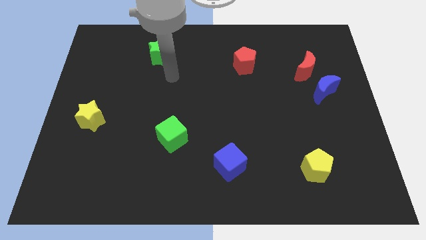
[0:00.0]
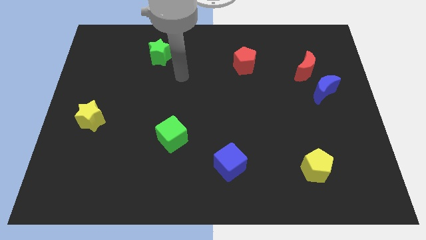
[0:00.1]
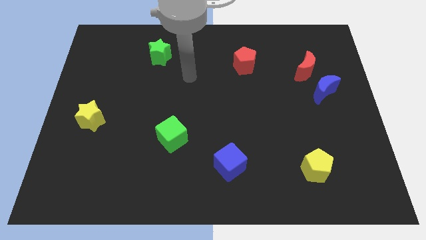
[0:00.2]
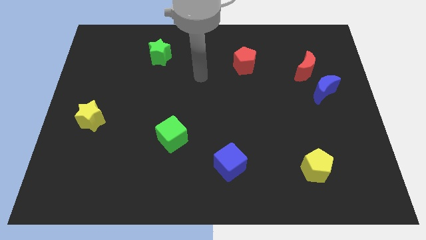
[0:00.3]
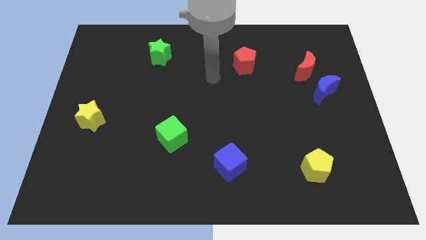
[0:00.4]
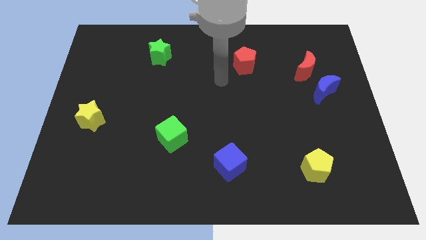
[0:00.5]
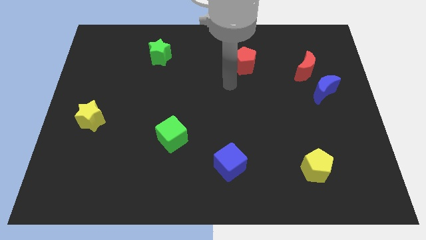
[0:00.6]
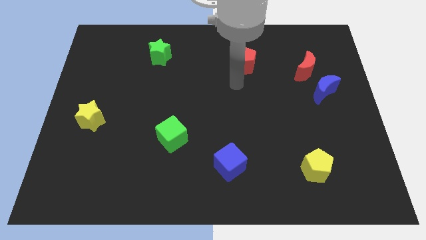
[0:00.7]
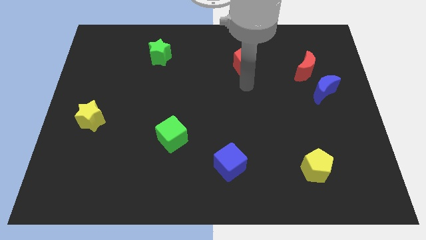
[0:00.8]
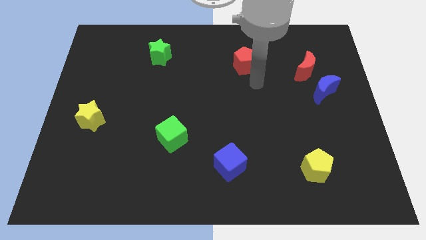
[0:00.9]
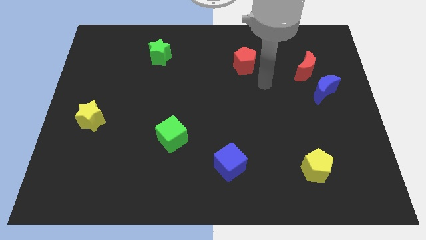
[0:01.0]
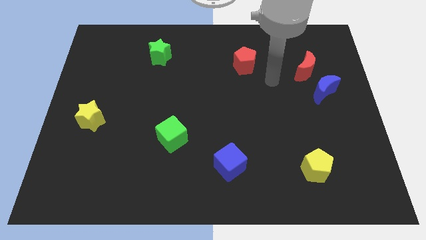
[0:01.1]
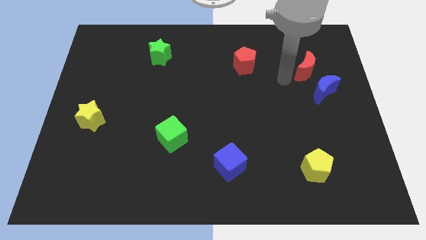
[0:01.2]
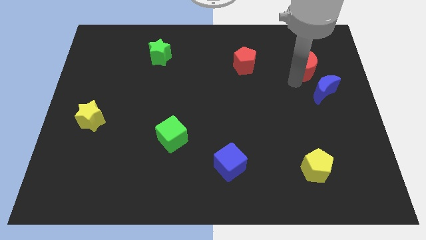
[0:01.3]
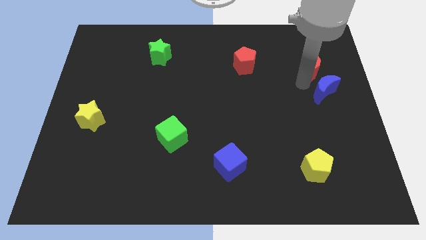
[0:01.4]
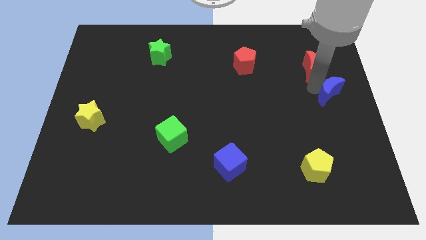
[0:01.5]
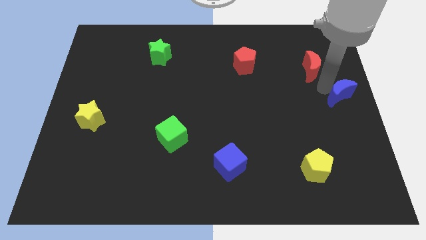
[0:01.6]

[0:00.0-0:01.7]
move the red moon away from the blue moon

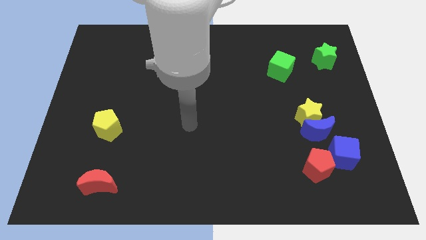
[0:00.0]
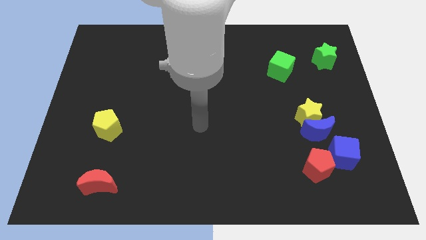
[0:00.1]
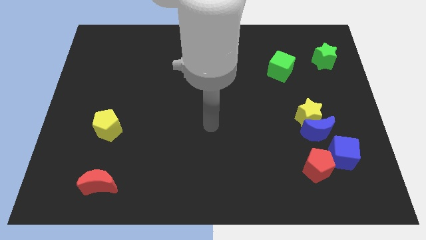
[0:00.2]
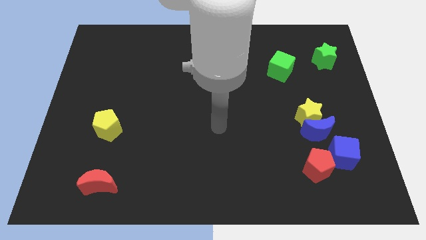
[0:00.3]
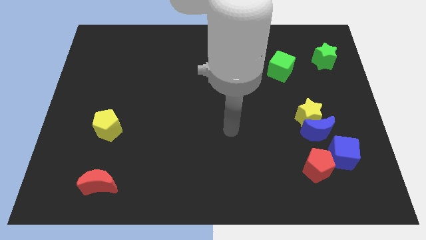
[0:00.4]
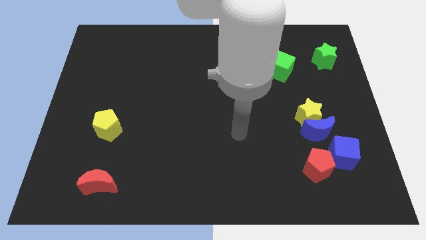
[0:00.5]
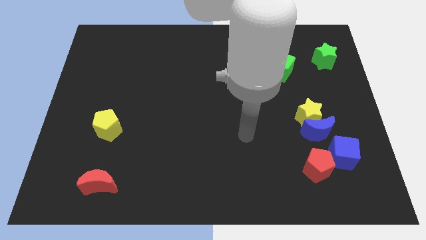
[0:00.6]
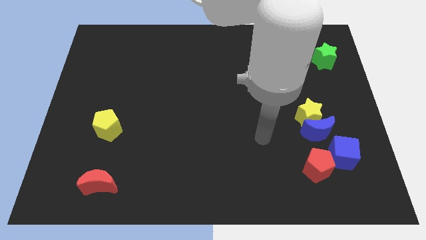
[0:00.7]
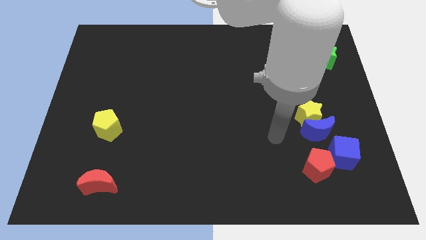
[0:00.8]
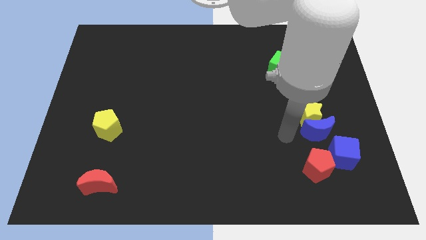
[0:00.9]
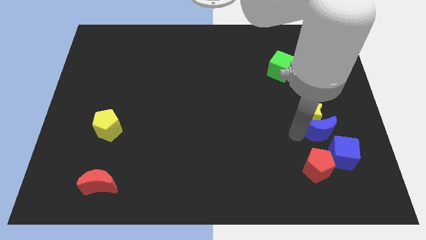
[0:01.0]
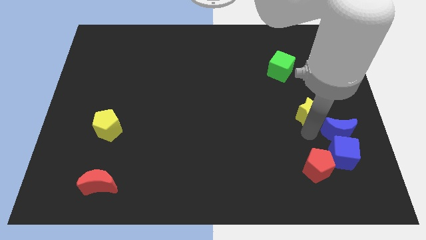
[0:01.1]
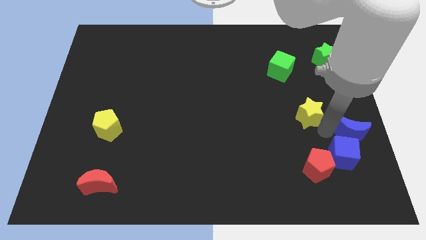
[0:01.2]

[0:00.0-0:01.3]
pull the yellow star apart from the blue moon

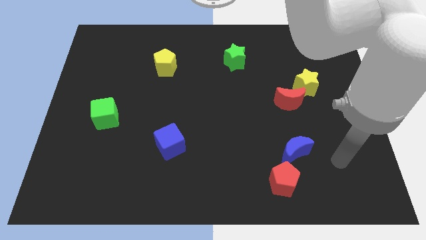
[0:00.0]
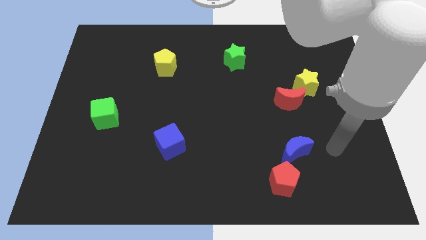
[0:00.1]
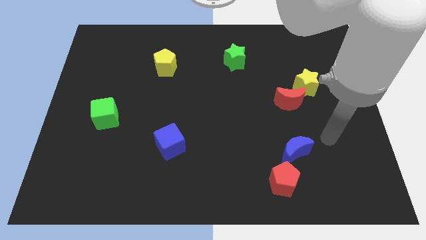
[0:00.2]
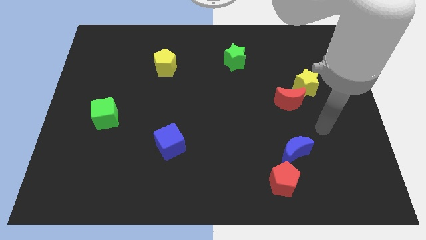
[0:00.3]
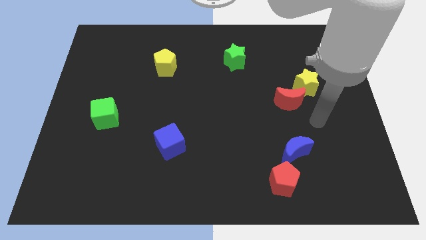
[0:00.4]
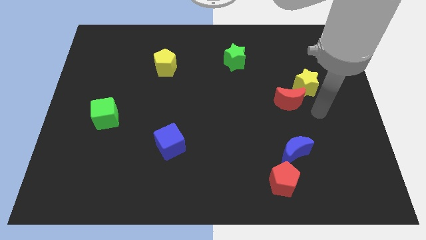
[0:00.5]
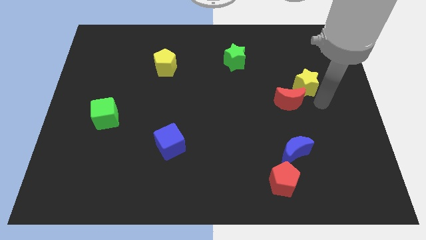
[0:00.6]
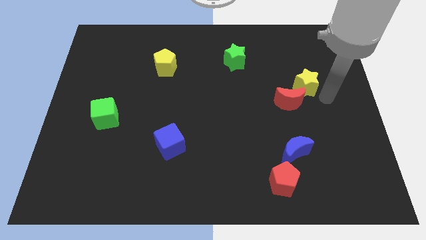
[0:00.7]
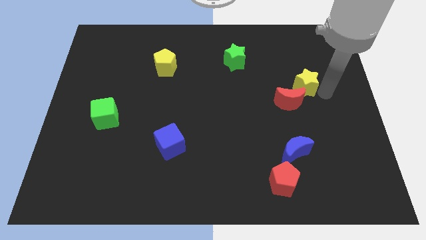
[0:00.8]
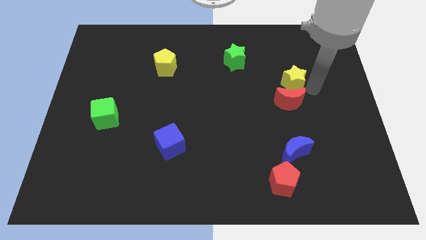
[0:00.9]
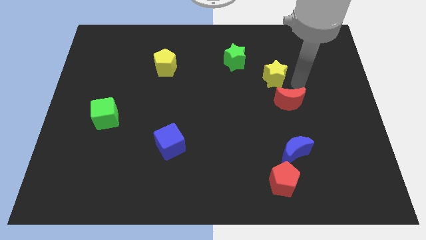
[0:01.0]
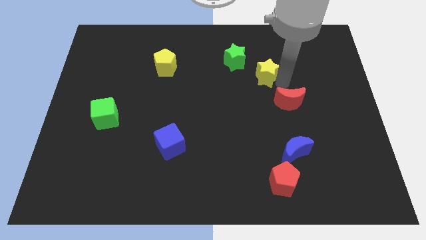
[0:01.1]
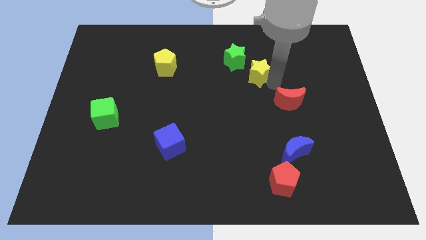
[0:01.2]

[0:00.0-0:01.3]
separate the red moon from the yellow star

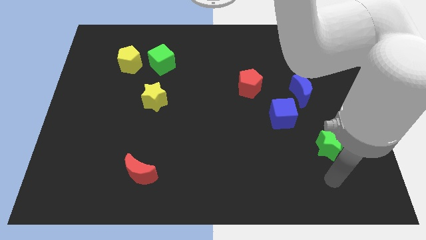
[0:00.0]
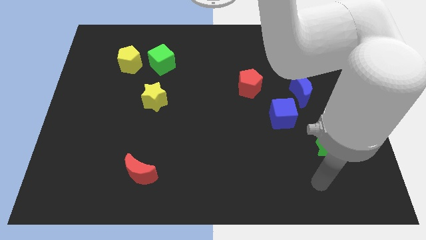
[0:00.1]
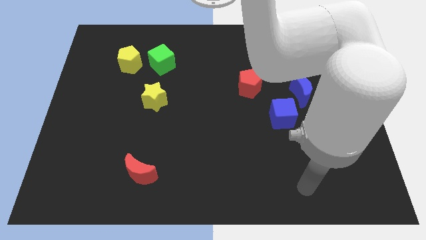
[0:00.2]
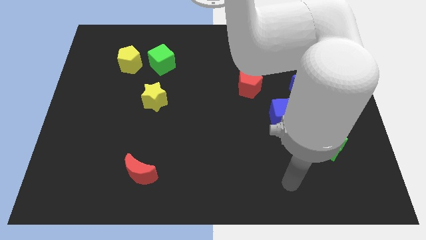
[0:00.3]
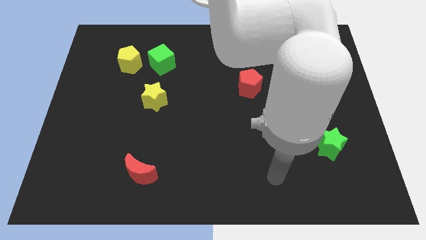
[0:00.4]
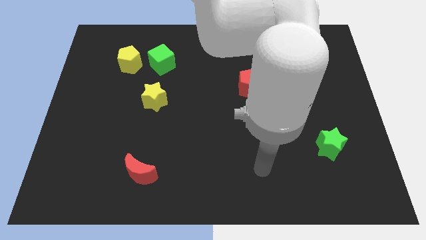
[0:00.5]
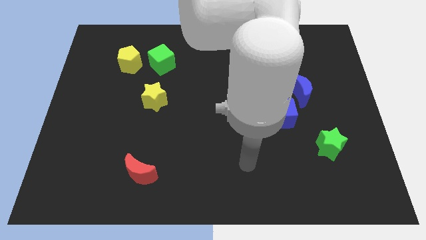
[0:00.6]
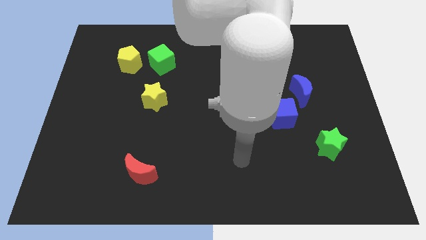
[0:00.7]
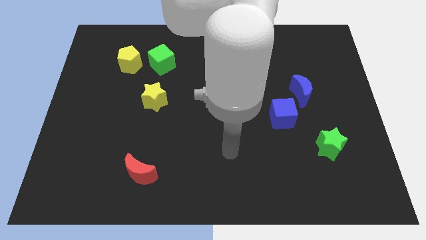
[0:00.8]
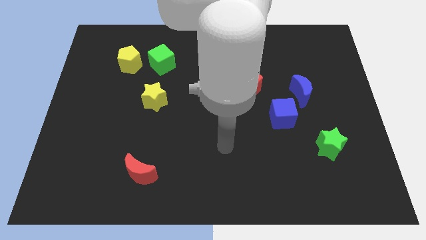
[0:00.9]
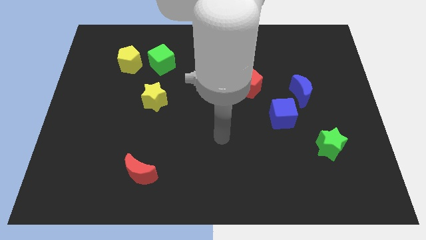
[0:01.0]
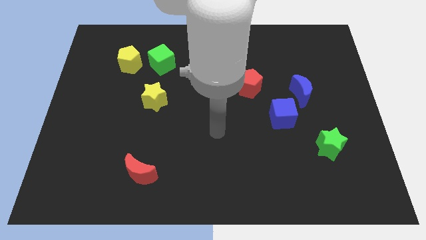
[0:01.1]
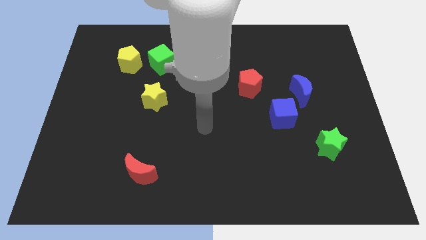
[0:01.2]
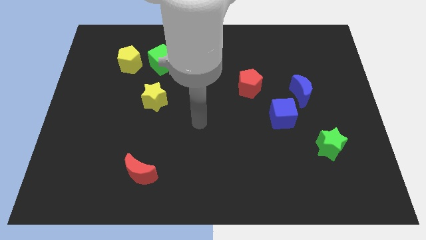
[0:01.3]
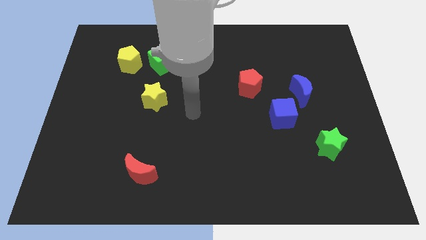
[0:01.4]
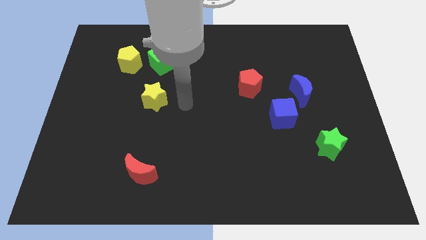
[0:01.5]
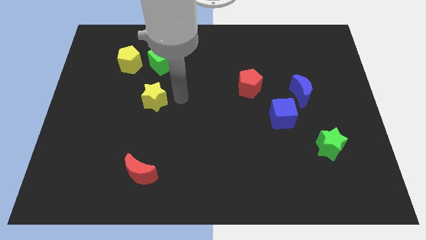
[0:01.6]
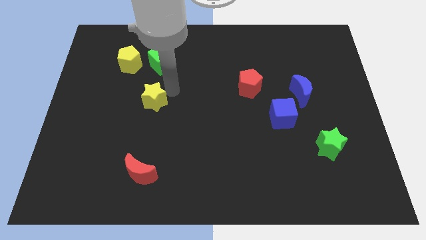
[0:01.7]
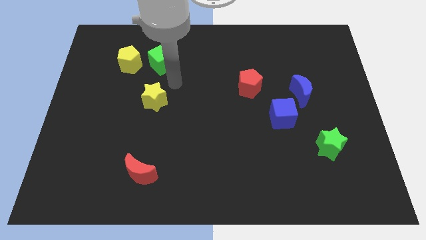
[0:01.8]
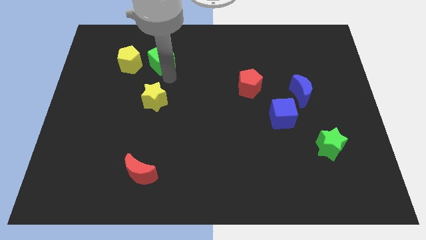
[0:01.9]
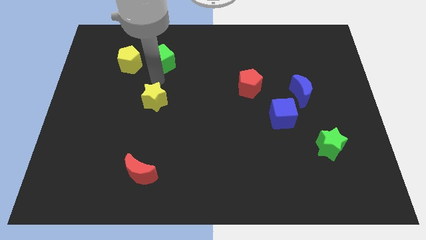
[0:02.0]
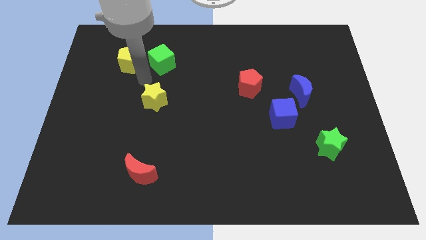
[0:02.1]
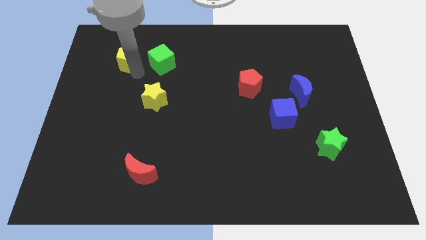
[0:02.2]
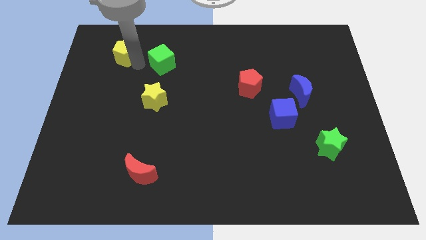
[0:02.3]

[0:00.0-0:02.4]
move the green cube away from the yellow pentagon

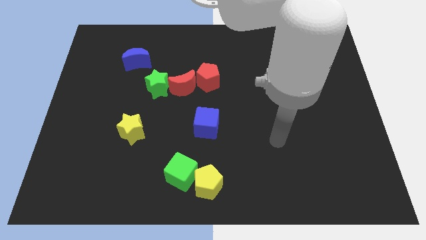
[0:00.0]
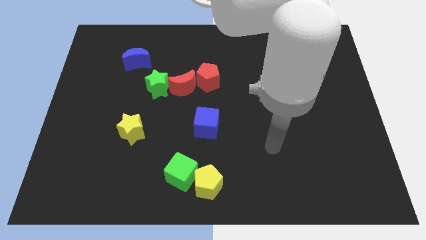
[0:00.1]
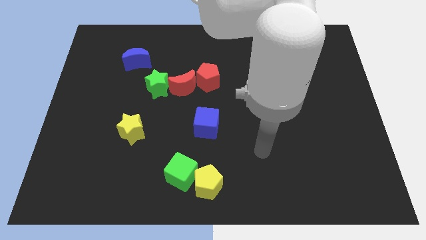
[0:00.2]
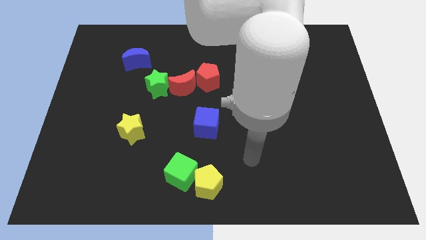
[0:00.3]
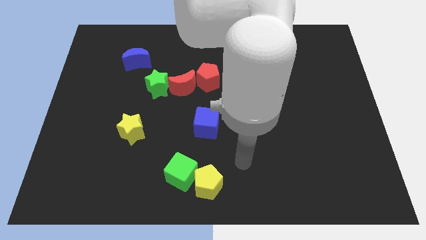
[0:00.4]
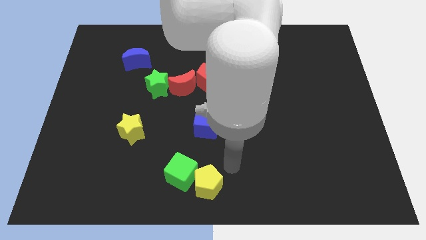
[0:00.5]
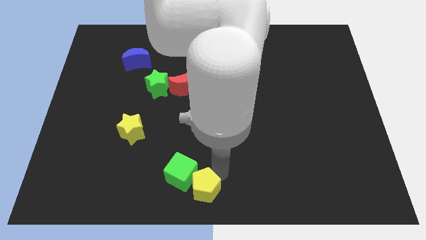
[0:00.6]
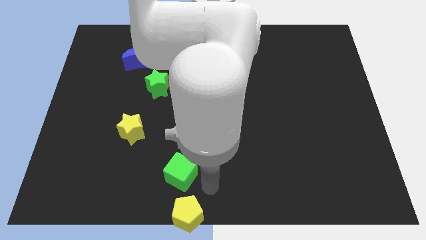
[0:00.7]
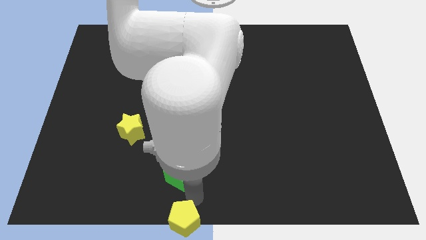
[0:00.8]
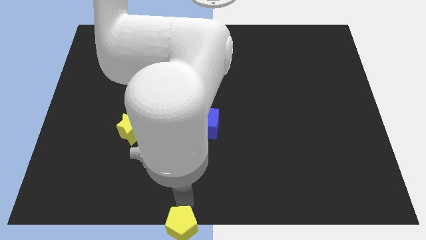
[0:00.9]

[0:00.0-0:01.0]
pull the green cube apart from the yellow pentagon

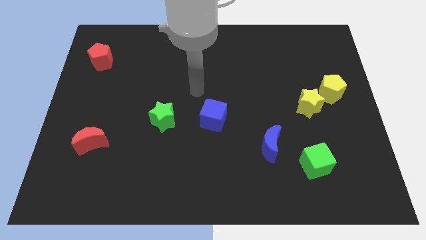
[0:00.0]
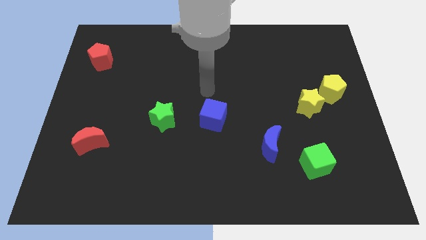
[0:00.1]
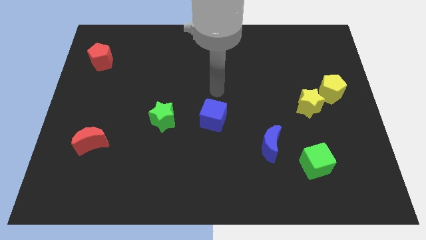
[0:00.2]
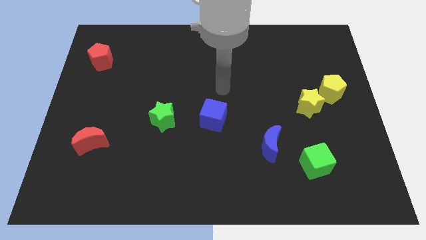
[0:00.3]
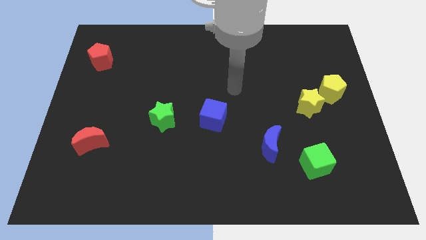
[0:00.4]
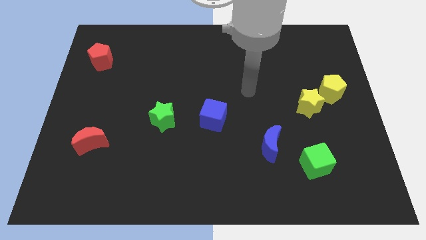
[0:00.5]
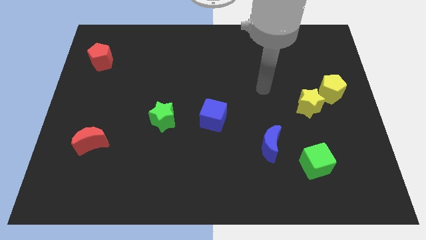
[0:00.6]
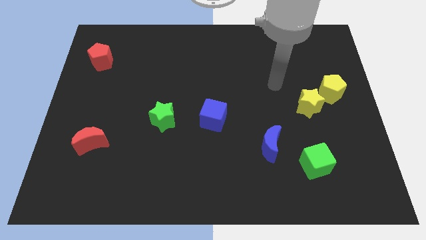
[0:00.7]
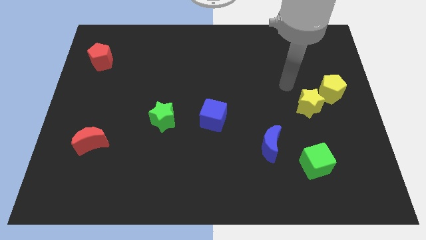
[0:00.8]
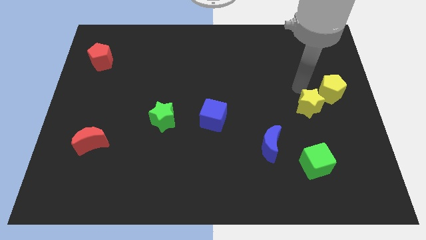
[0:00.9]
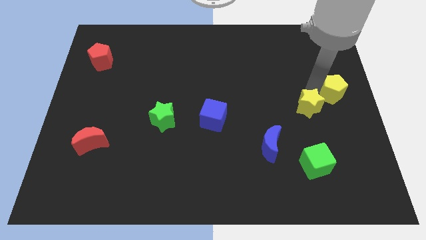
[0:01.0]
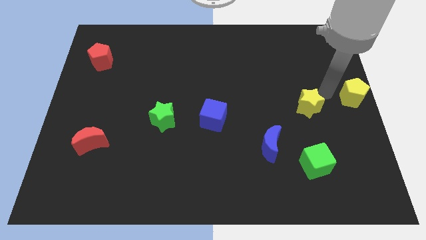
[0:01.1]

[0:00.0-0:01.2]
separate the yellow star from the yellow pentagon

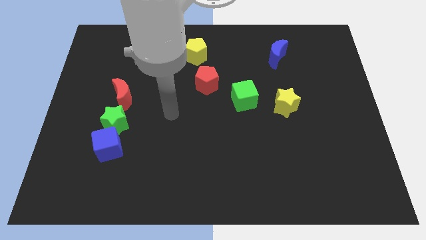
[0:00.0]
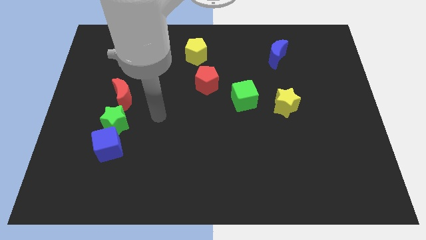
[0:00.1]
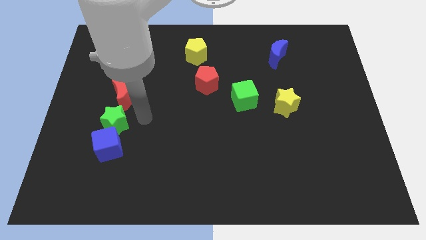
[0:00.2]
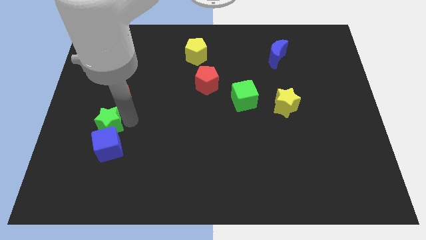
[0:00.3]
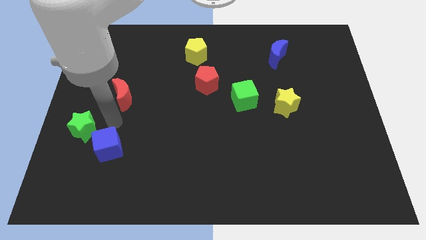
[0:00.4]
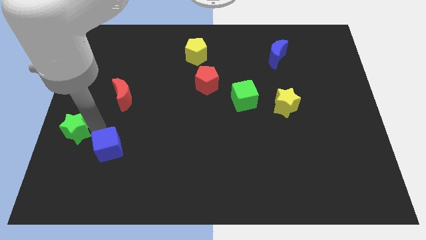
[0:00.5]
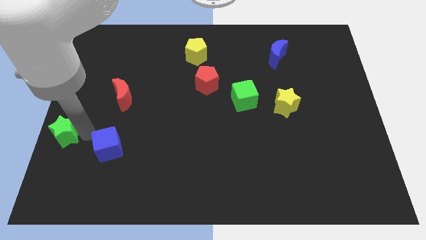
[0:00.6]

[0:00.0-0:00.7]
pull the blue cube apart from the green star
